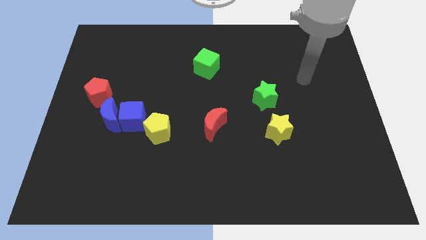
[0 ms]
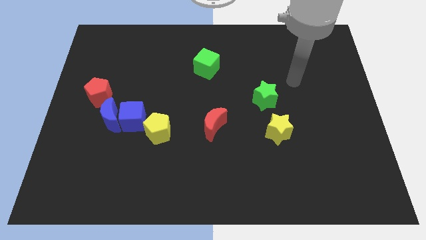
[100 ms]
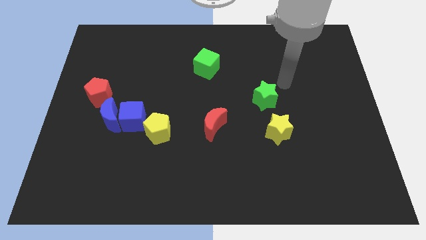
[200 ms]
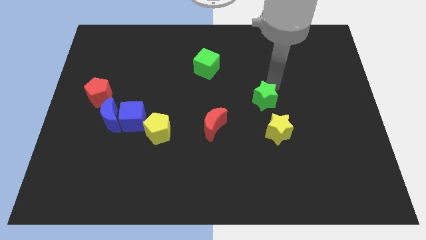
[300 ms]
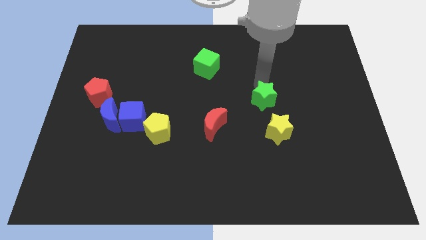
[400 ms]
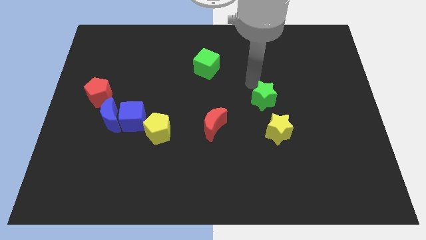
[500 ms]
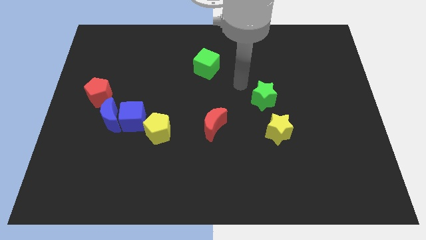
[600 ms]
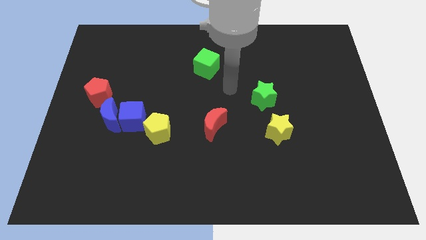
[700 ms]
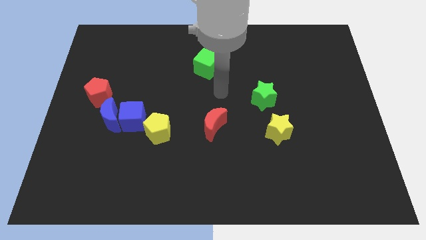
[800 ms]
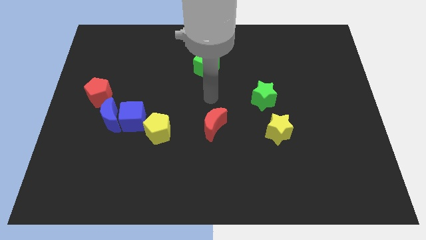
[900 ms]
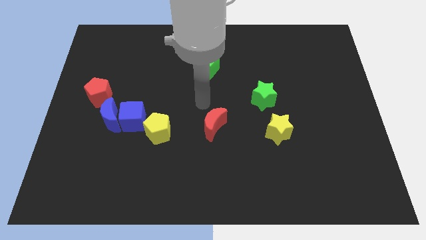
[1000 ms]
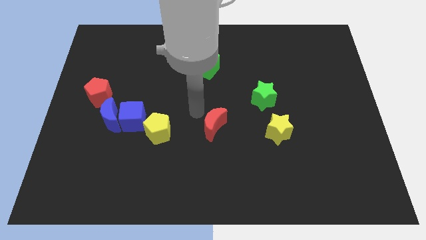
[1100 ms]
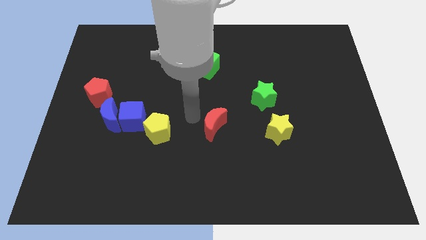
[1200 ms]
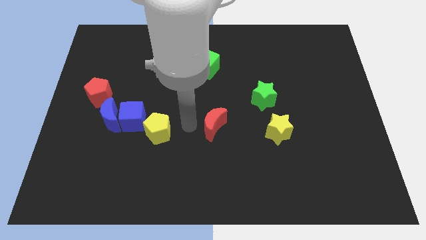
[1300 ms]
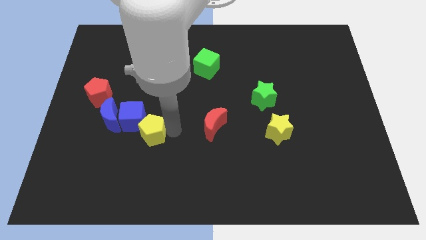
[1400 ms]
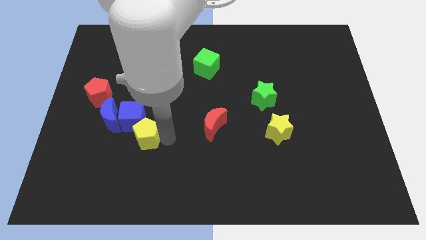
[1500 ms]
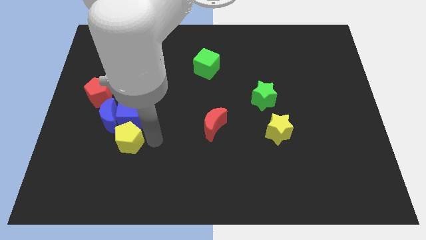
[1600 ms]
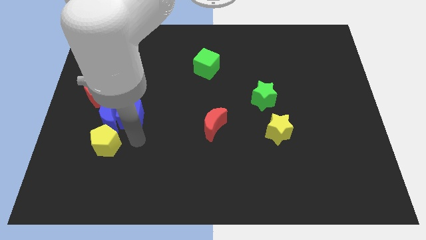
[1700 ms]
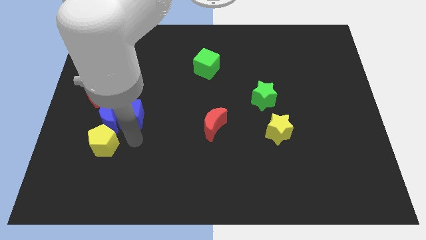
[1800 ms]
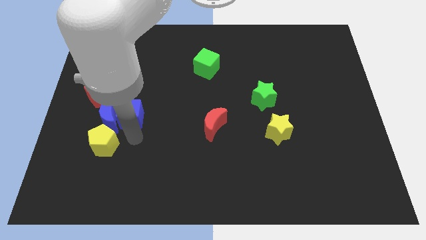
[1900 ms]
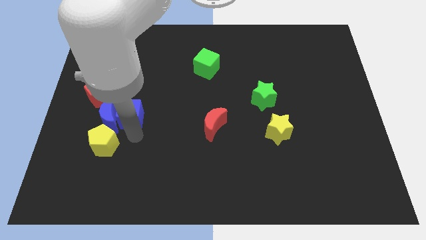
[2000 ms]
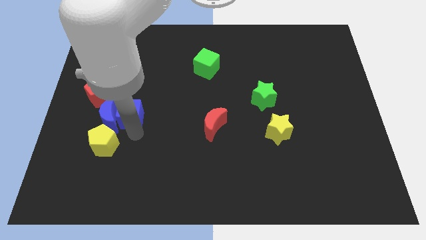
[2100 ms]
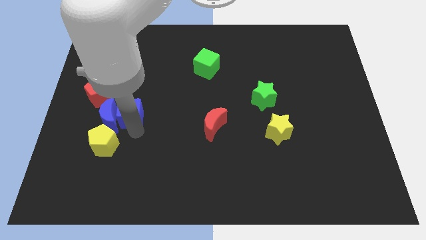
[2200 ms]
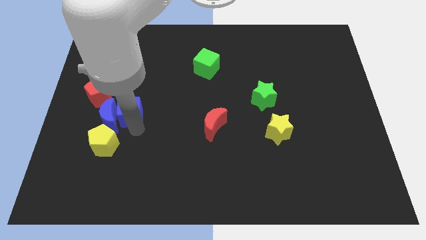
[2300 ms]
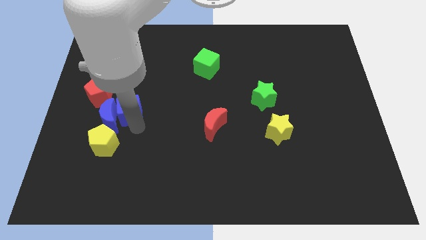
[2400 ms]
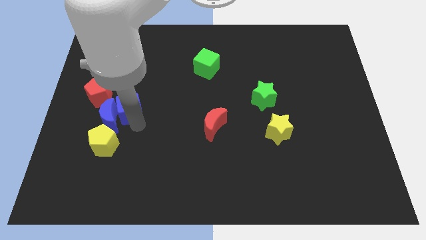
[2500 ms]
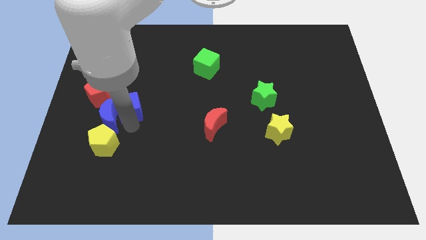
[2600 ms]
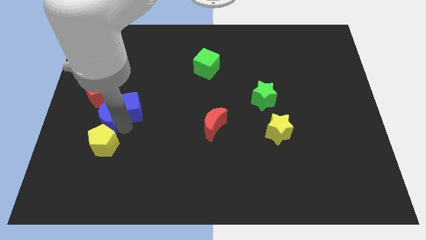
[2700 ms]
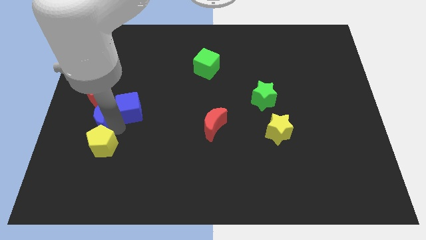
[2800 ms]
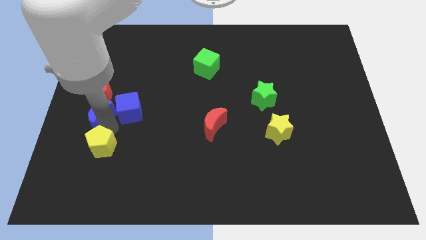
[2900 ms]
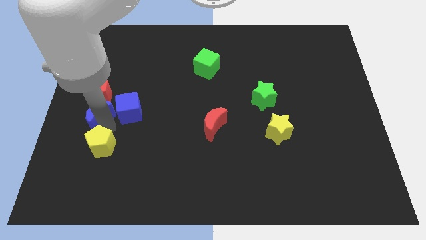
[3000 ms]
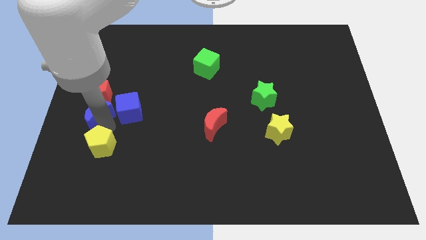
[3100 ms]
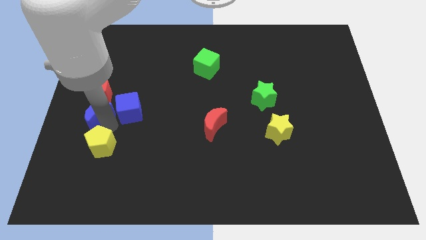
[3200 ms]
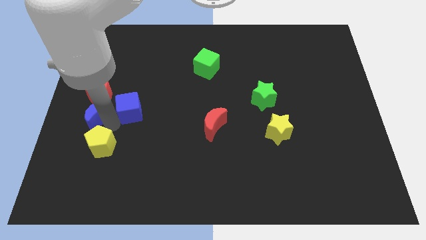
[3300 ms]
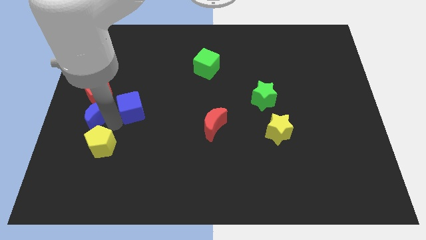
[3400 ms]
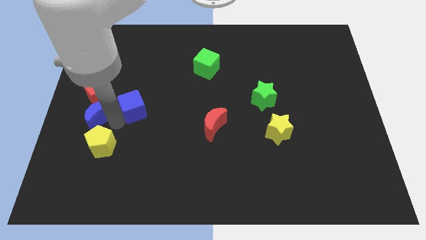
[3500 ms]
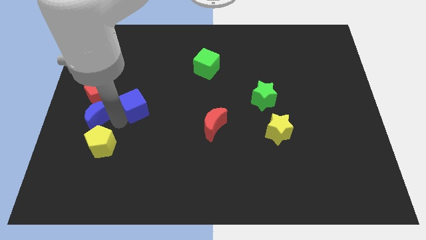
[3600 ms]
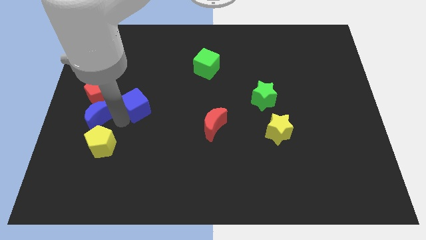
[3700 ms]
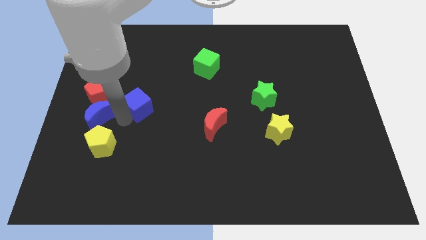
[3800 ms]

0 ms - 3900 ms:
move the blue cube away from the blue moon and yellow pentagon

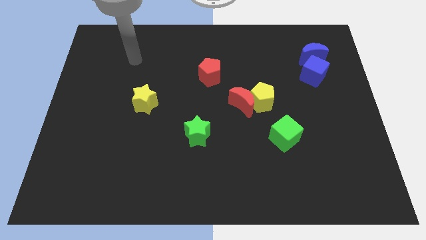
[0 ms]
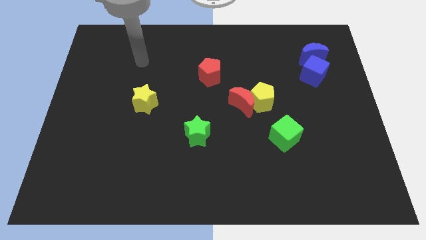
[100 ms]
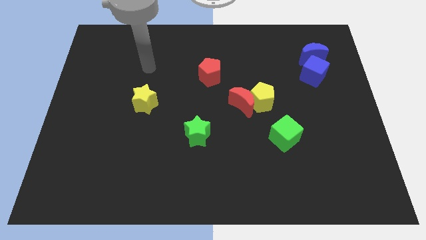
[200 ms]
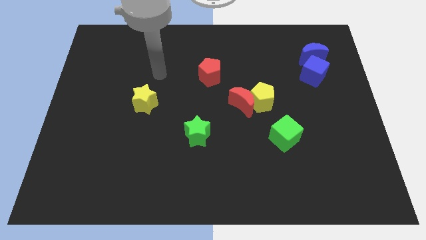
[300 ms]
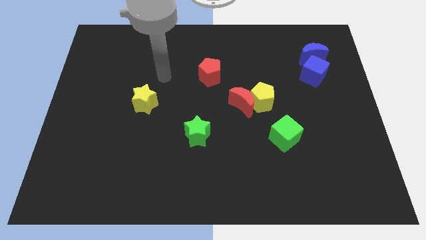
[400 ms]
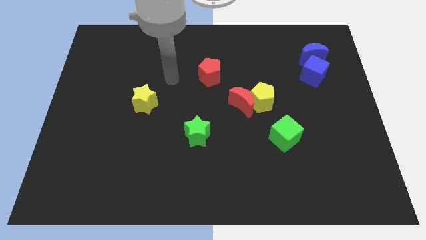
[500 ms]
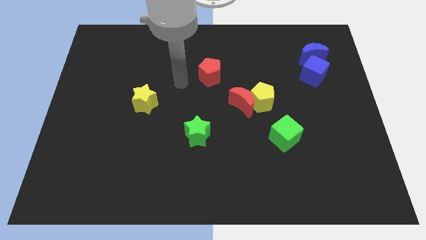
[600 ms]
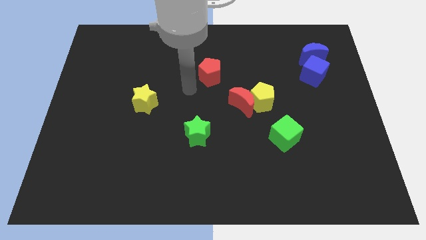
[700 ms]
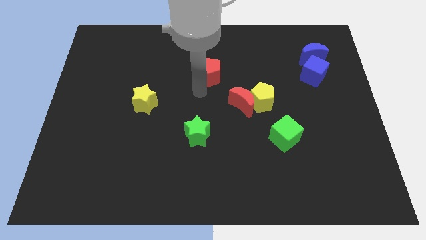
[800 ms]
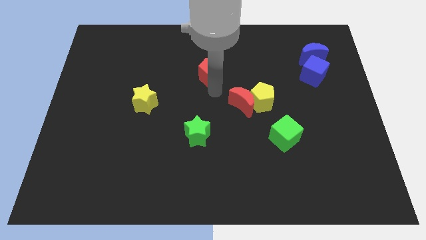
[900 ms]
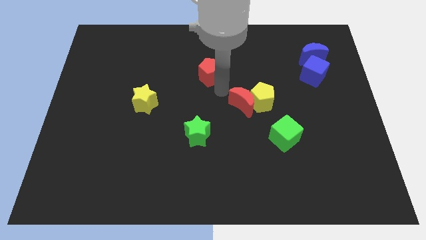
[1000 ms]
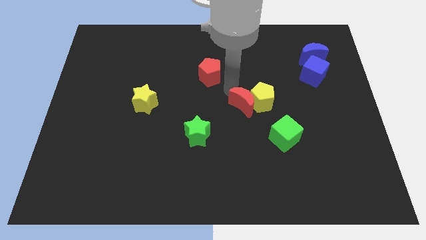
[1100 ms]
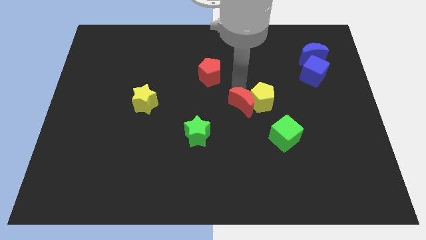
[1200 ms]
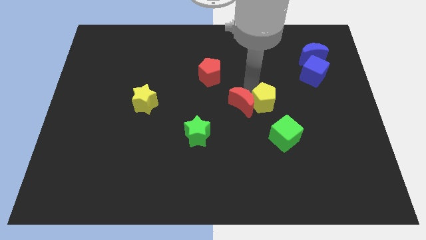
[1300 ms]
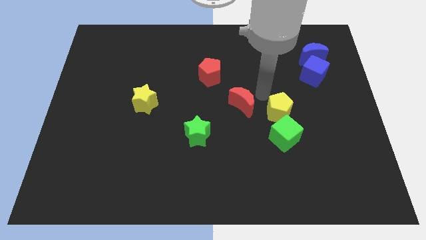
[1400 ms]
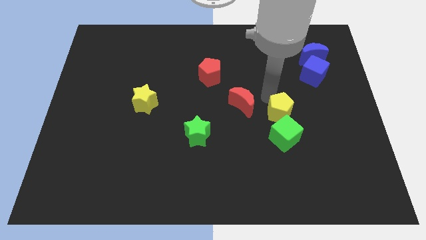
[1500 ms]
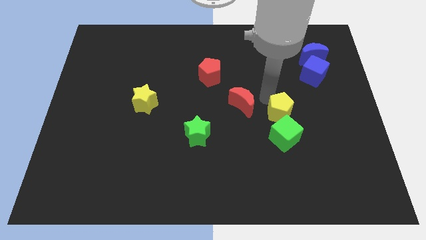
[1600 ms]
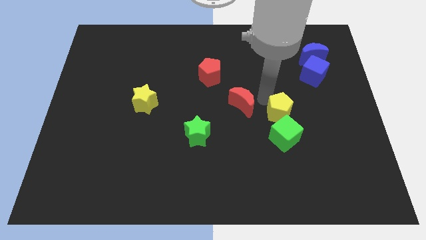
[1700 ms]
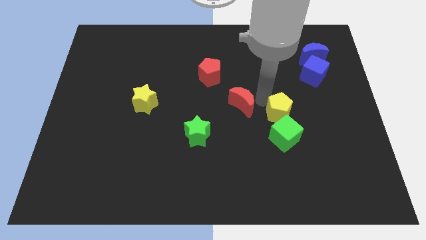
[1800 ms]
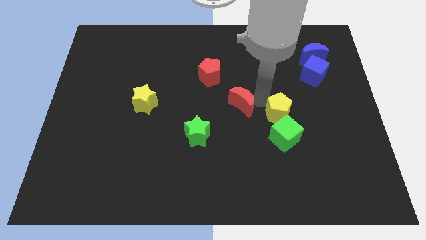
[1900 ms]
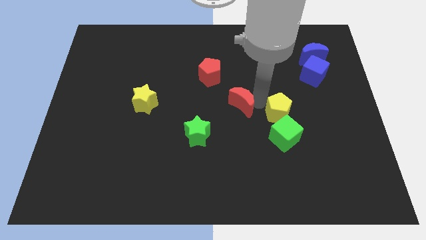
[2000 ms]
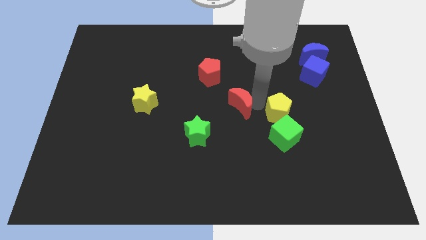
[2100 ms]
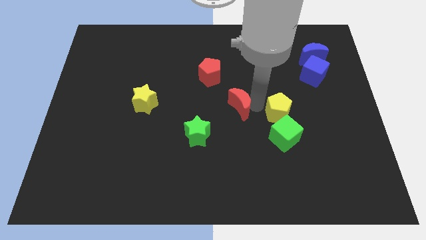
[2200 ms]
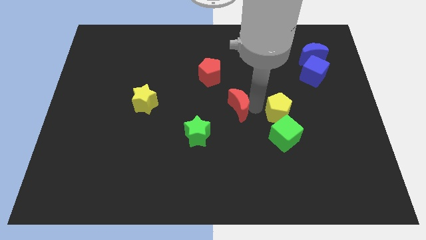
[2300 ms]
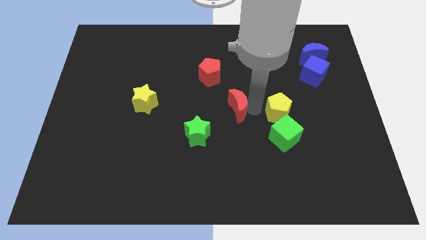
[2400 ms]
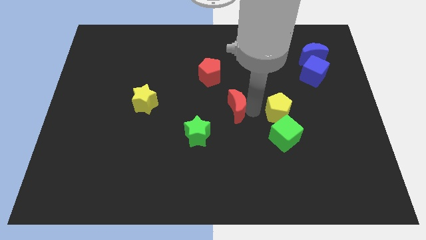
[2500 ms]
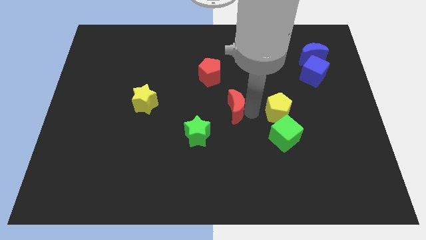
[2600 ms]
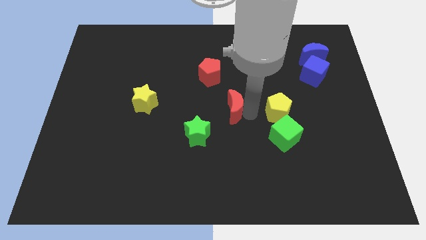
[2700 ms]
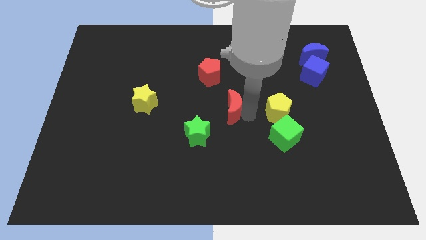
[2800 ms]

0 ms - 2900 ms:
pull the red moon apart from the yellow pentagon

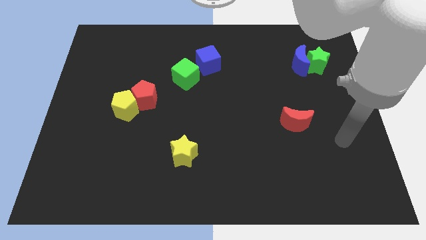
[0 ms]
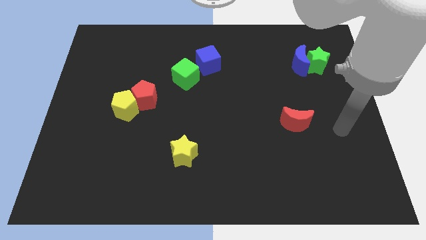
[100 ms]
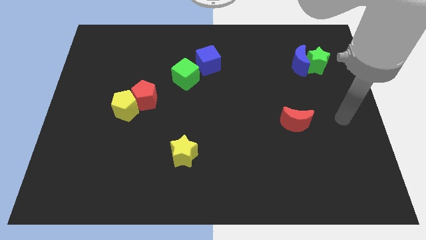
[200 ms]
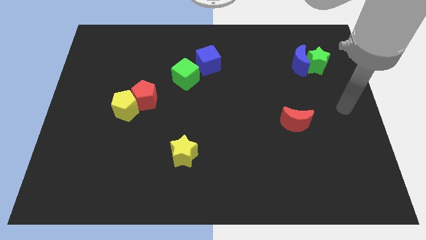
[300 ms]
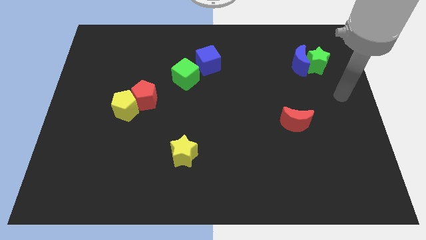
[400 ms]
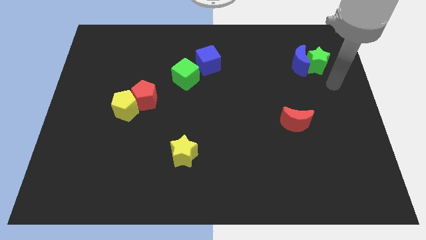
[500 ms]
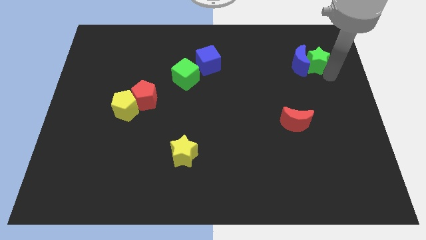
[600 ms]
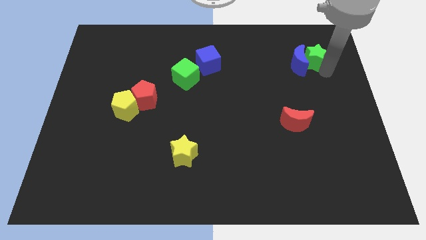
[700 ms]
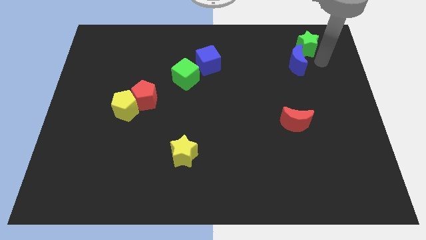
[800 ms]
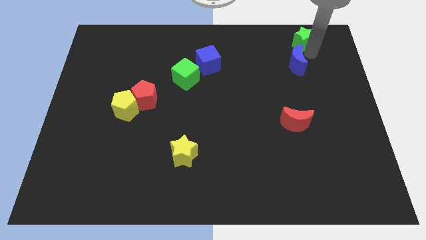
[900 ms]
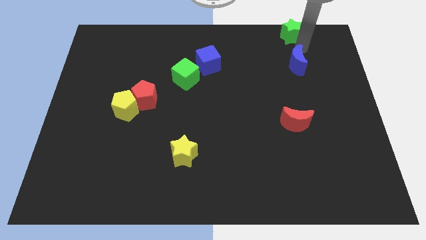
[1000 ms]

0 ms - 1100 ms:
move the blue moon away from the green star

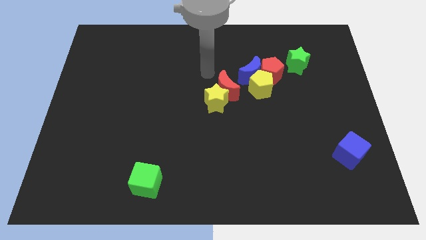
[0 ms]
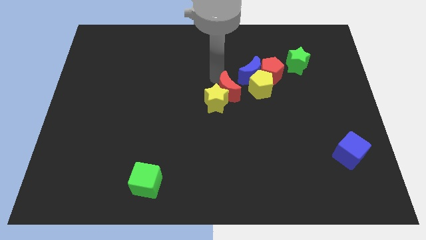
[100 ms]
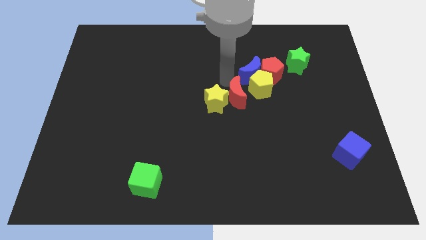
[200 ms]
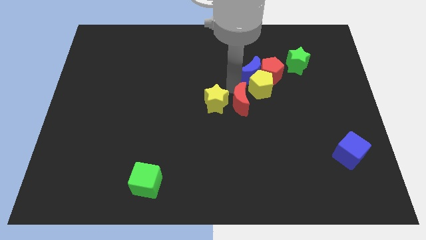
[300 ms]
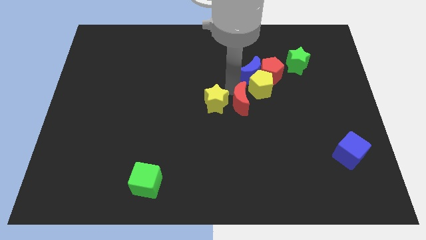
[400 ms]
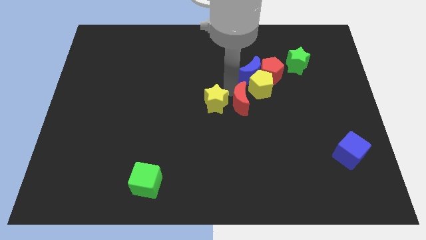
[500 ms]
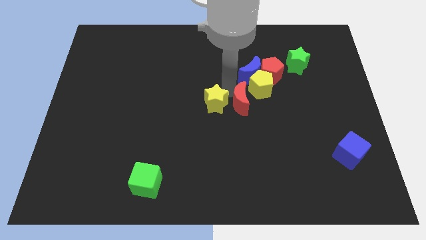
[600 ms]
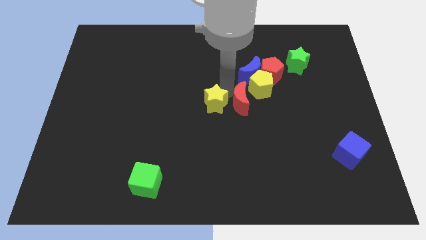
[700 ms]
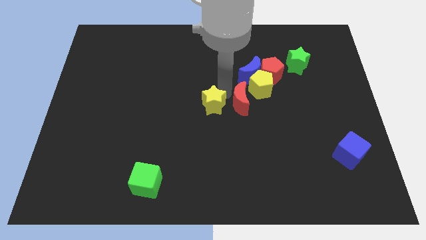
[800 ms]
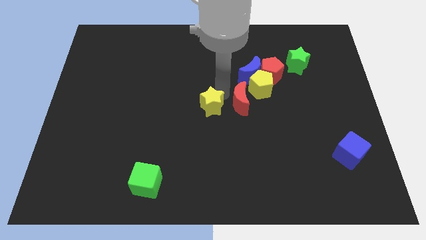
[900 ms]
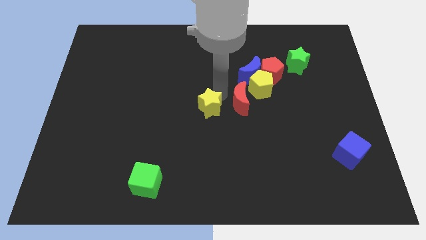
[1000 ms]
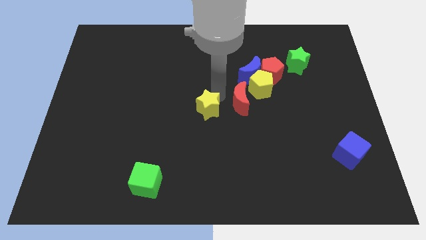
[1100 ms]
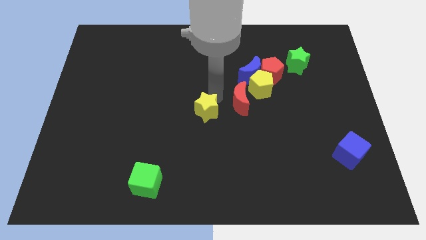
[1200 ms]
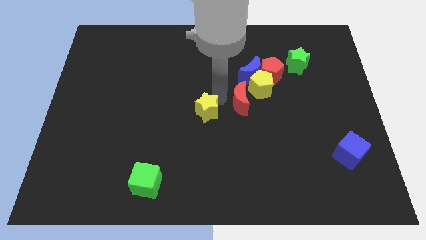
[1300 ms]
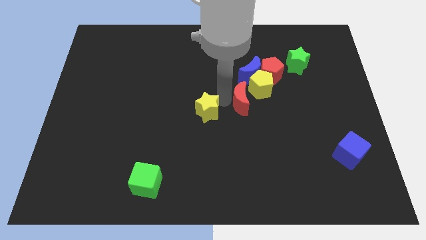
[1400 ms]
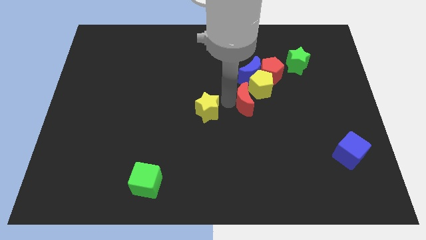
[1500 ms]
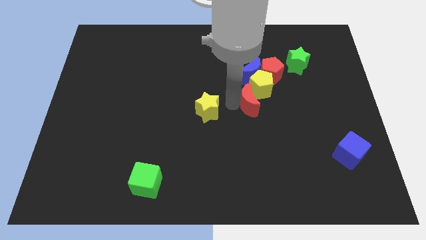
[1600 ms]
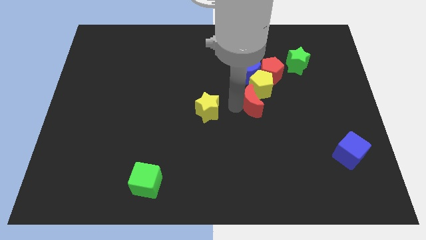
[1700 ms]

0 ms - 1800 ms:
pull the yellow star apart from the red moon
